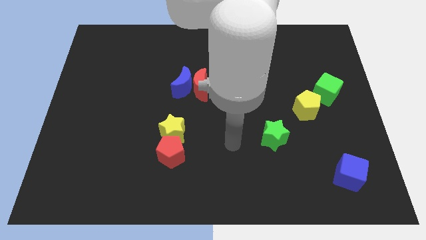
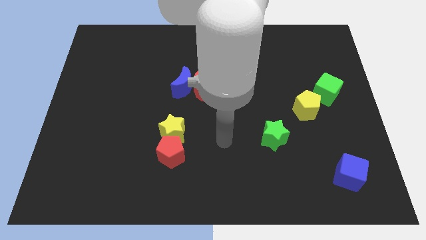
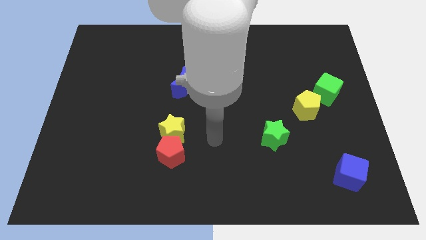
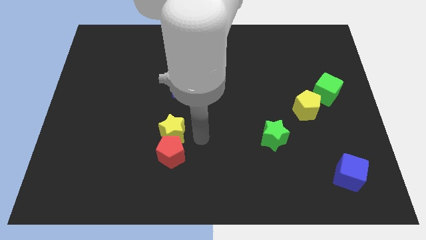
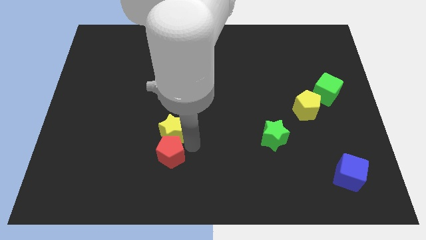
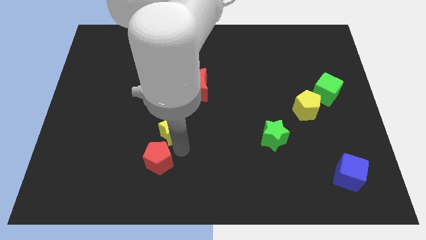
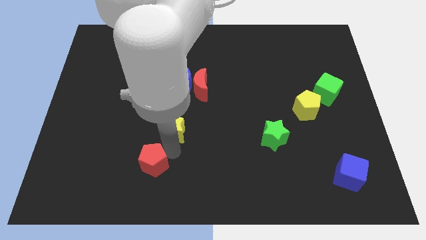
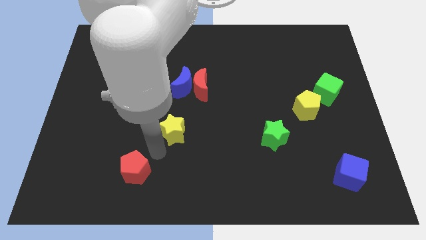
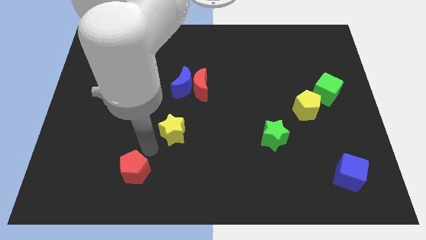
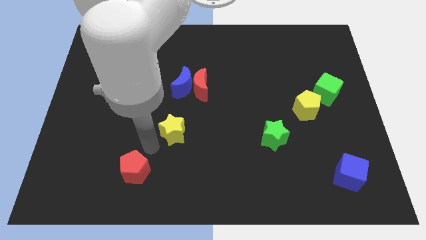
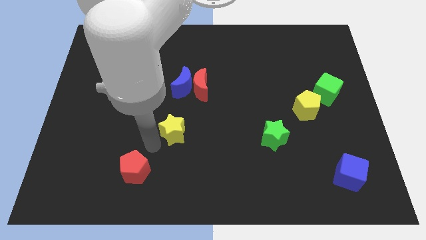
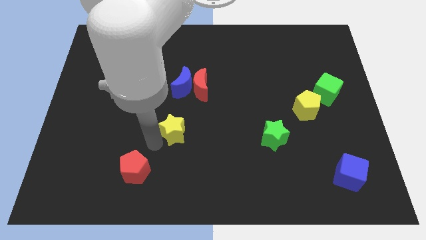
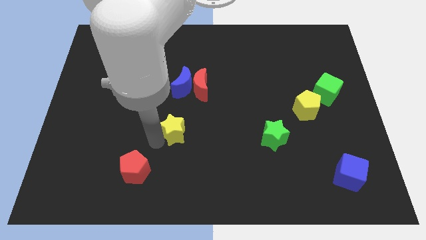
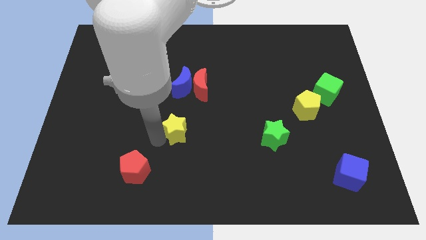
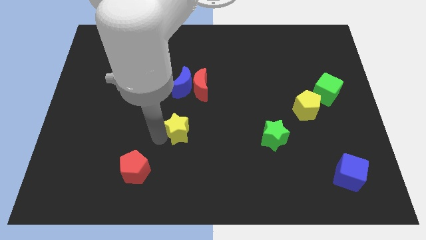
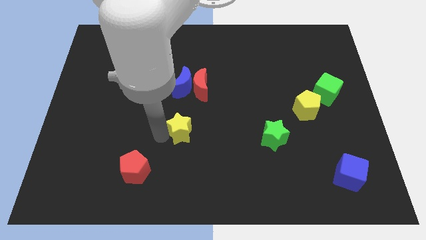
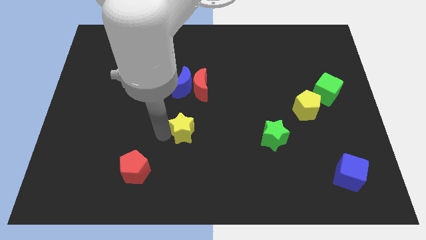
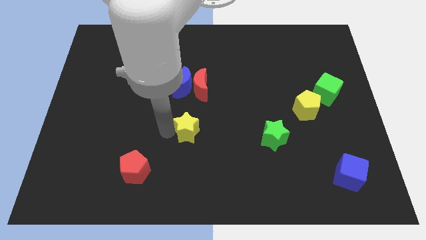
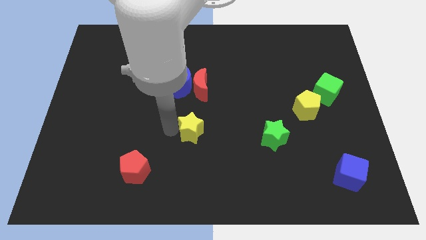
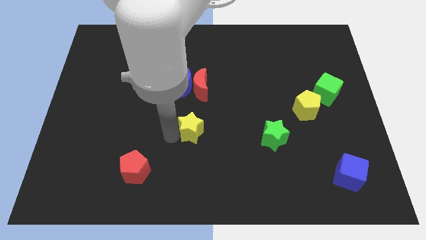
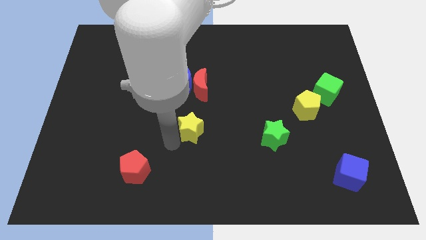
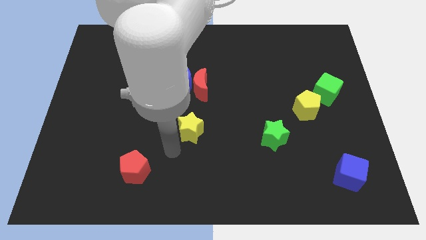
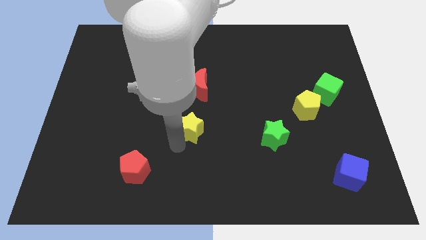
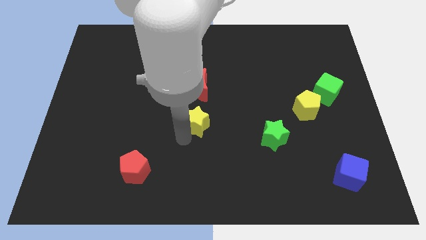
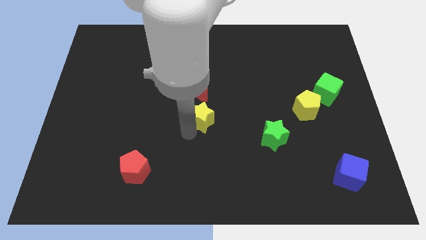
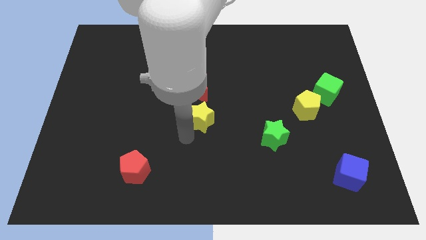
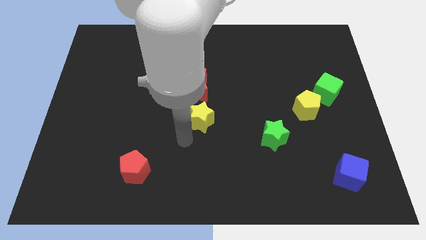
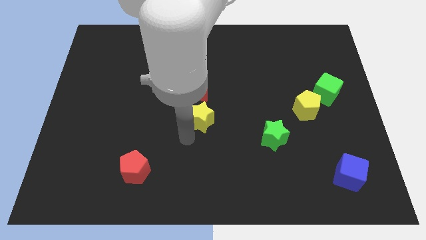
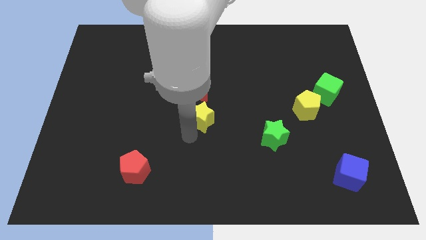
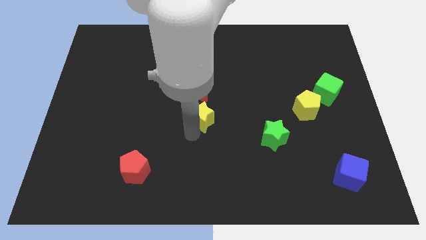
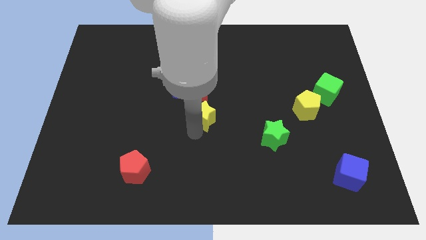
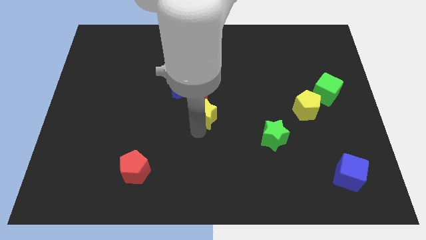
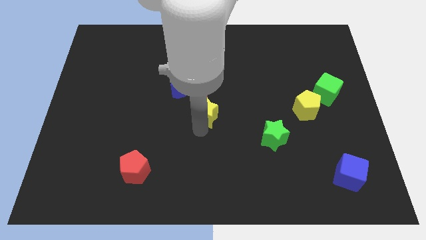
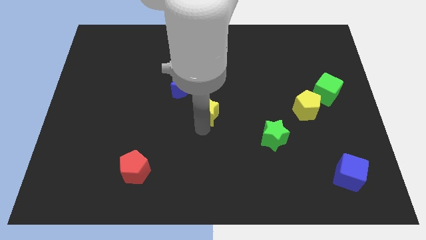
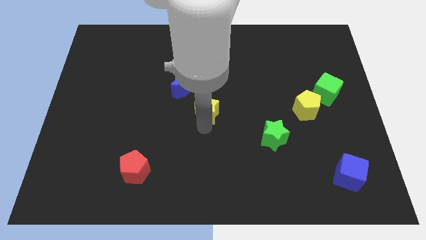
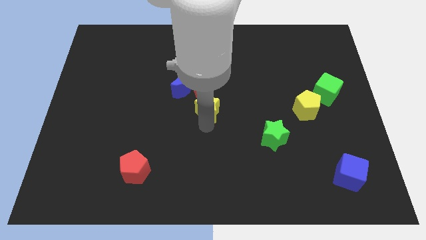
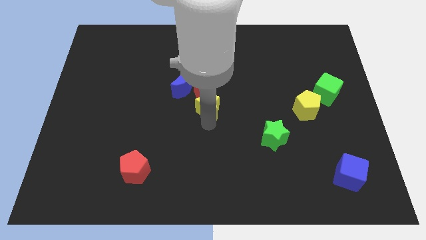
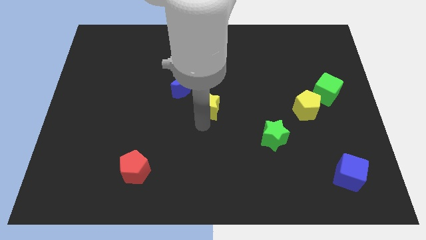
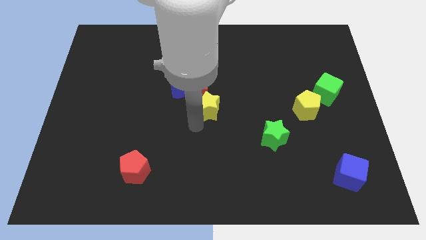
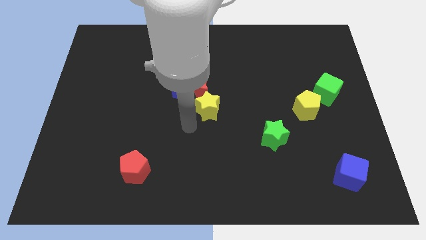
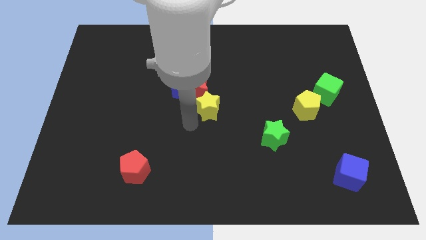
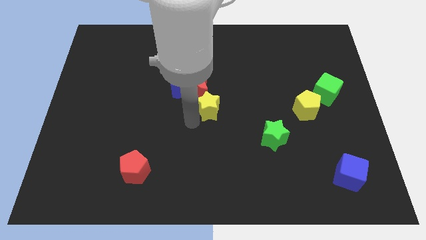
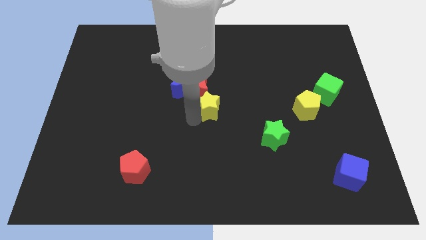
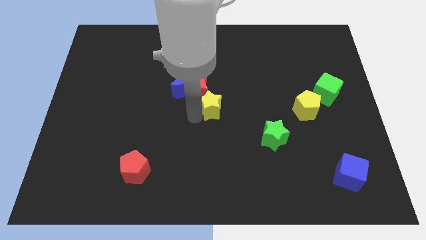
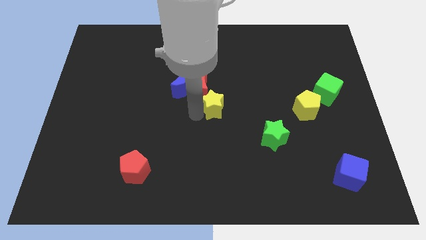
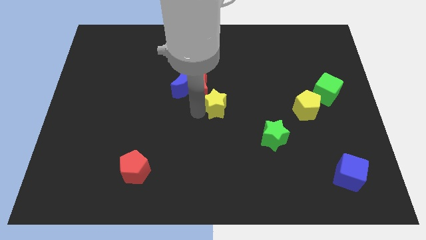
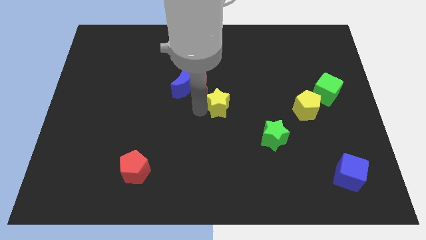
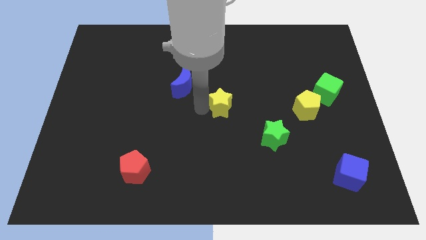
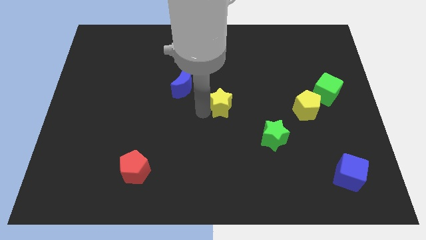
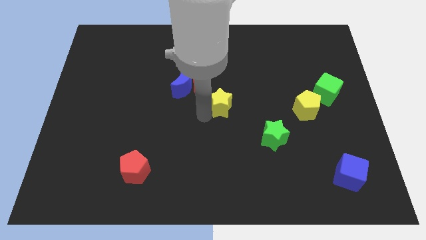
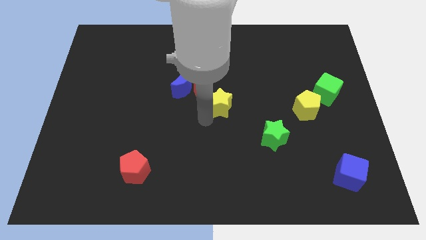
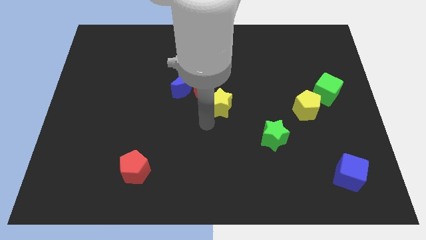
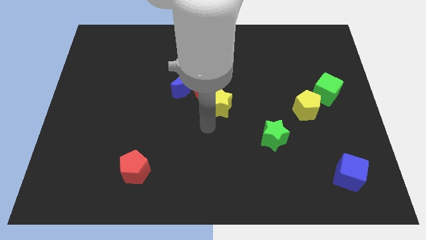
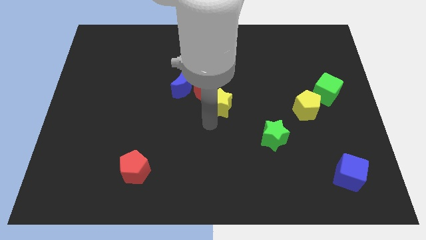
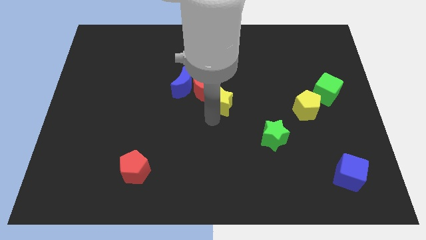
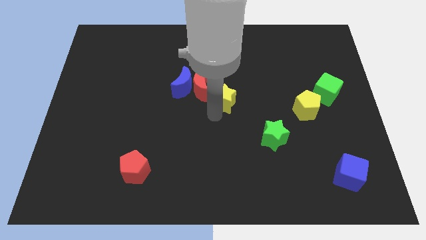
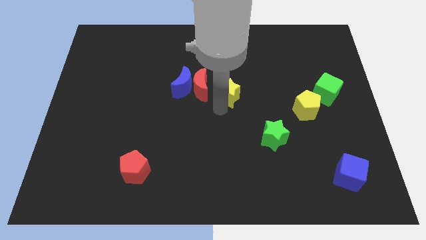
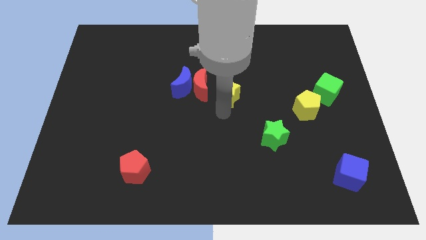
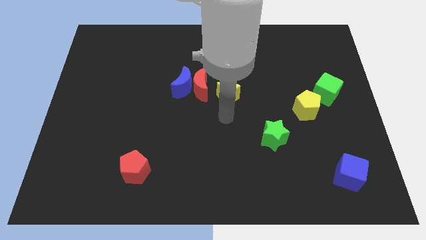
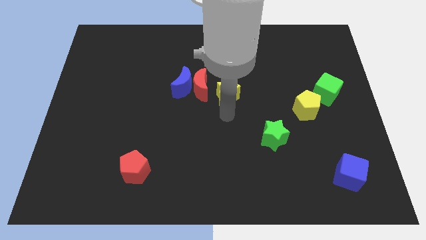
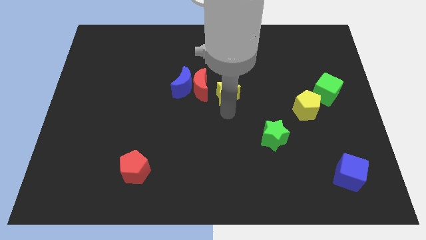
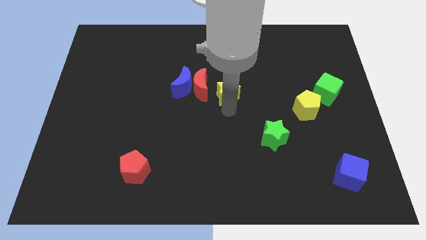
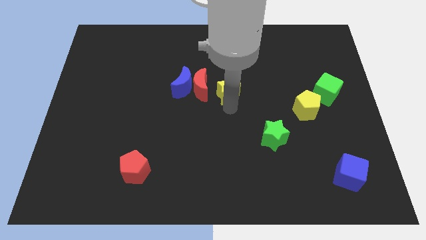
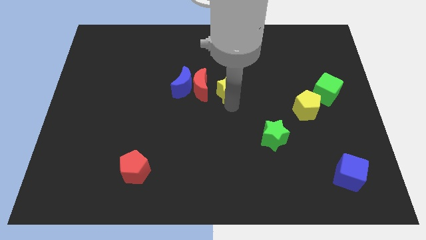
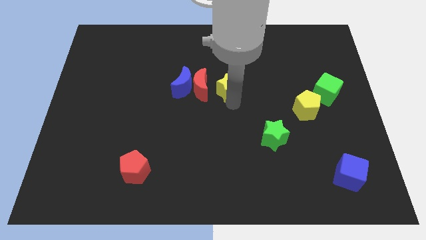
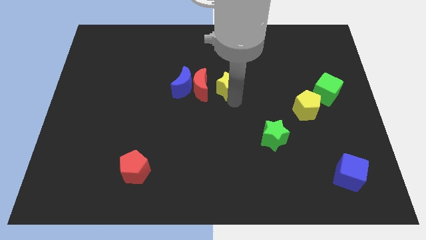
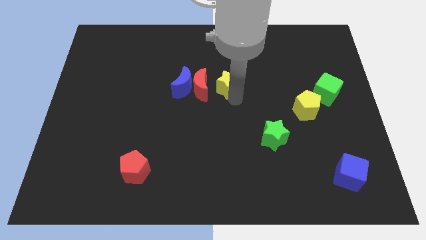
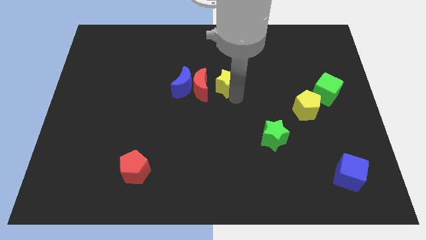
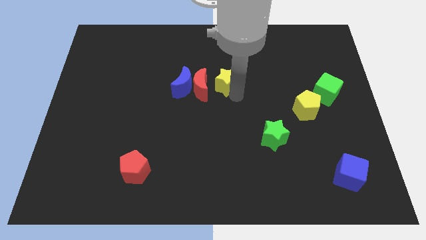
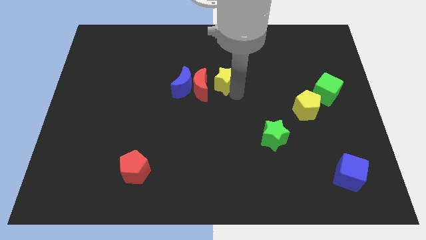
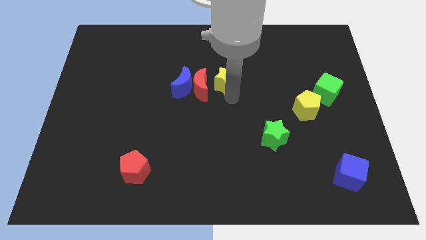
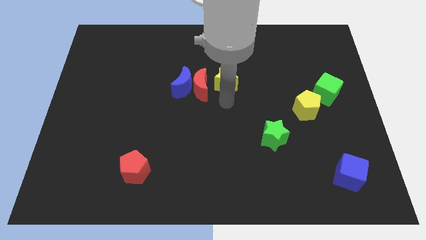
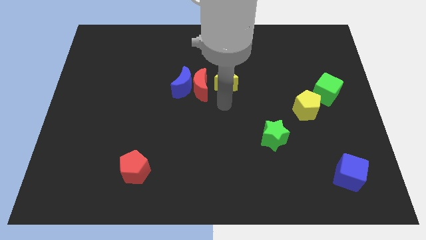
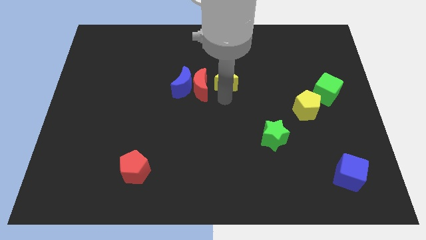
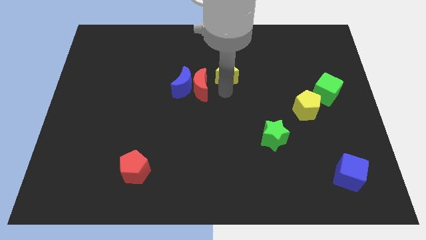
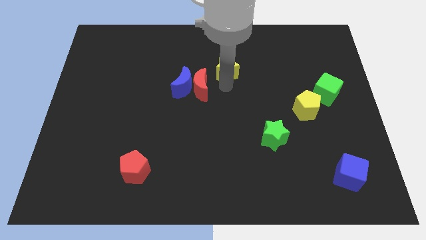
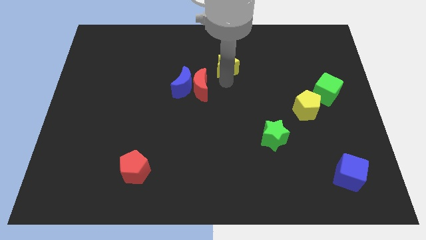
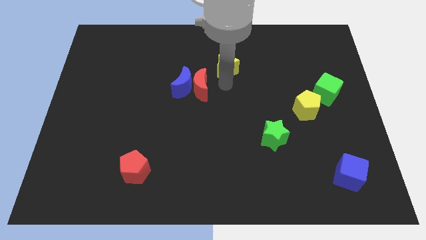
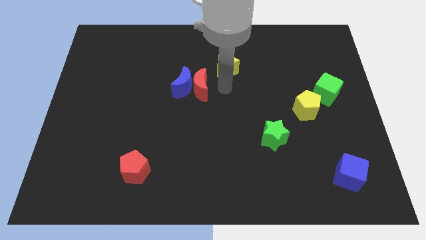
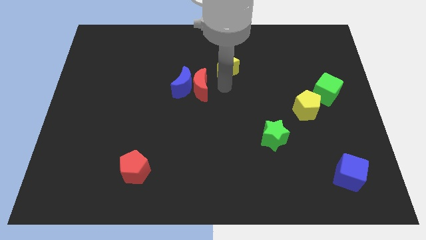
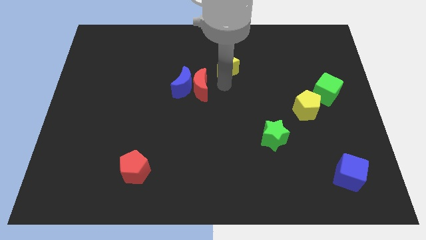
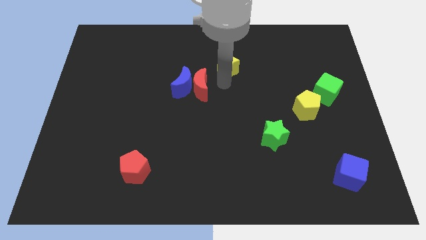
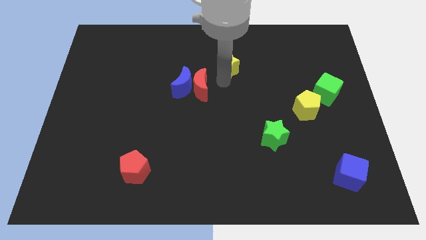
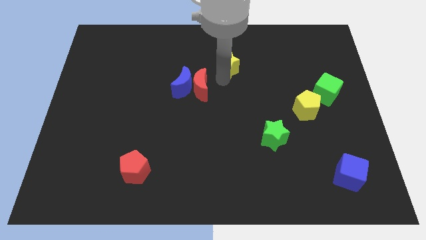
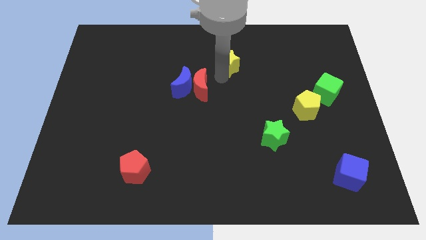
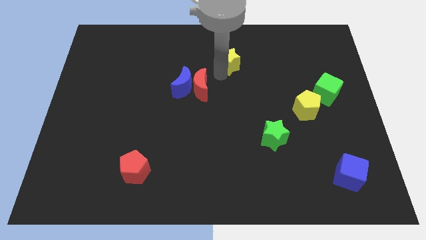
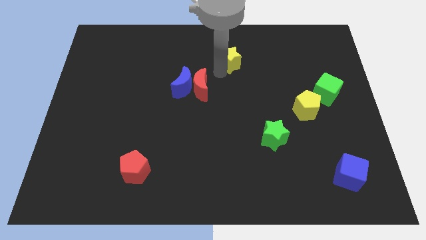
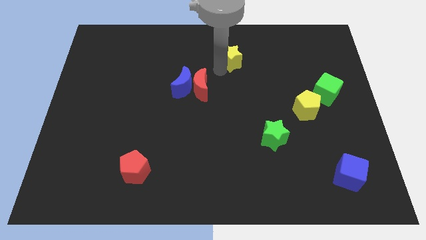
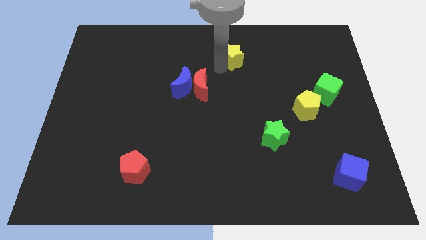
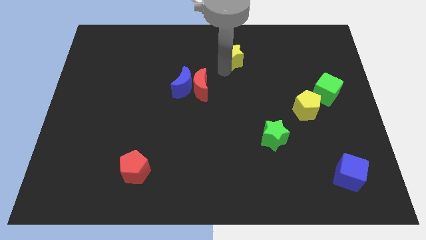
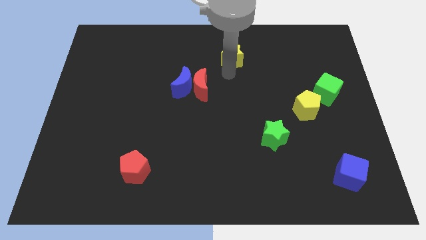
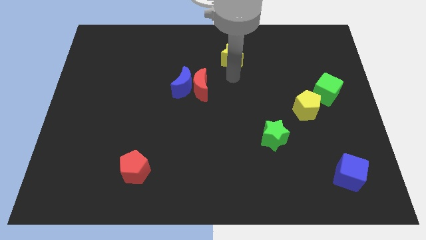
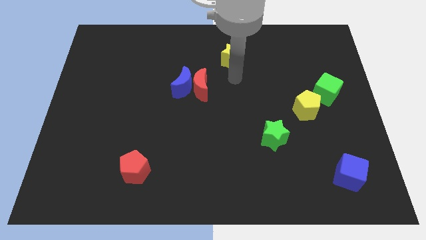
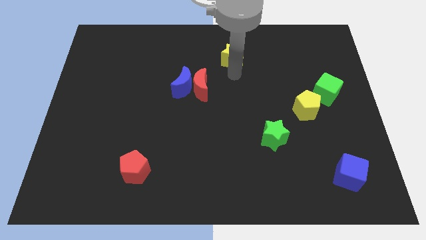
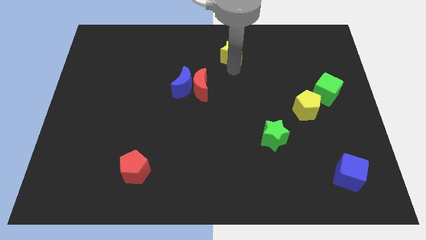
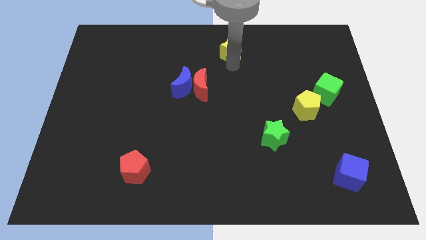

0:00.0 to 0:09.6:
put the yellow star to the top
